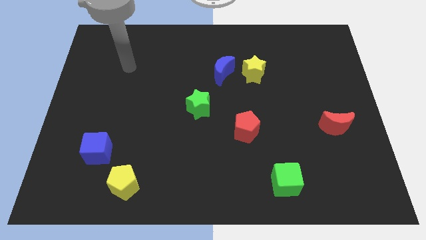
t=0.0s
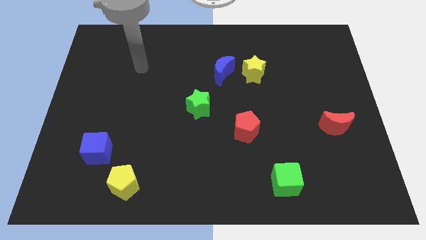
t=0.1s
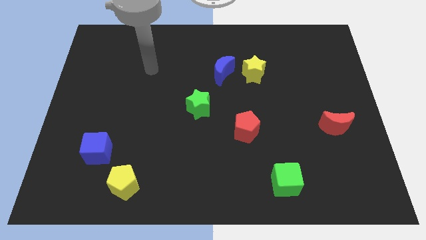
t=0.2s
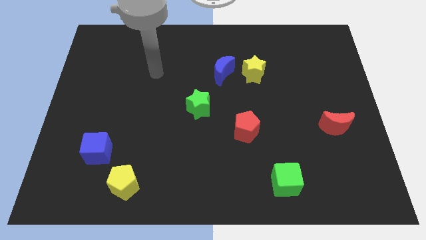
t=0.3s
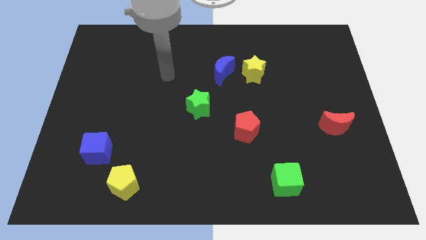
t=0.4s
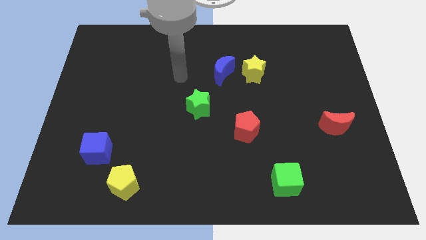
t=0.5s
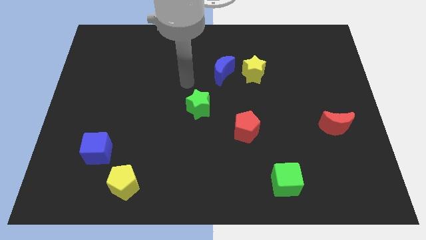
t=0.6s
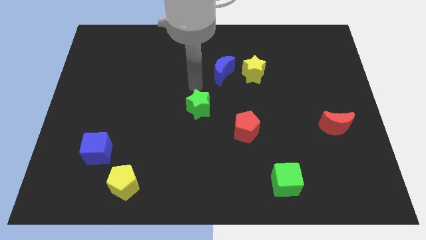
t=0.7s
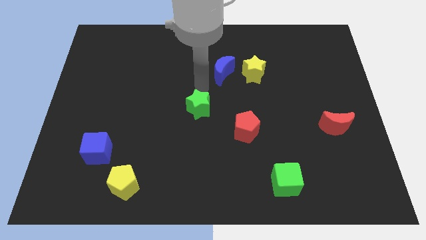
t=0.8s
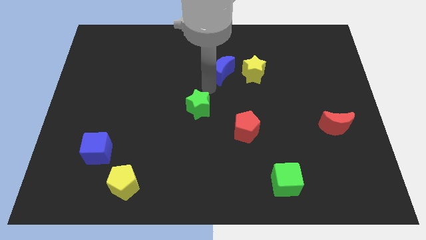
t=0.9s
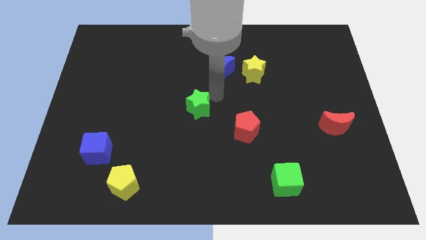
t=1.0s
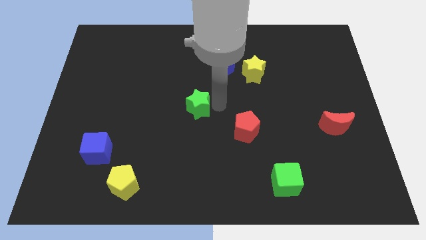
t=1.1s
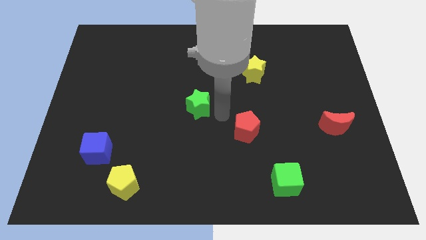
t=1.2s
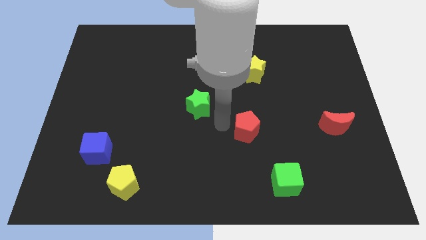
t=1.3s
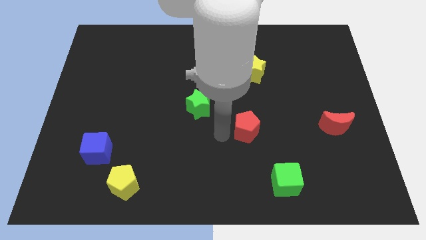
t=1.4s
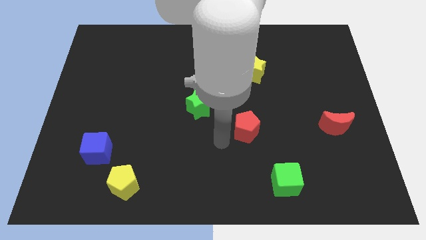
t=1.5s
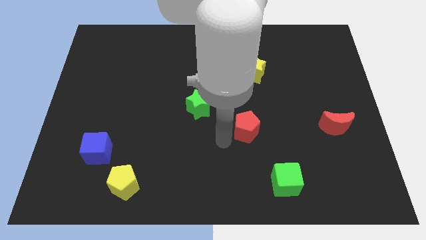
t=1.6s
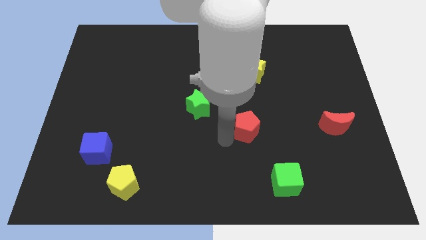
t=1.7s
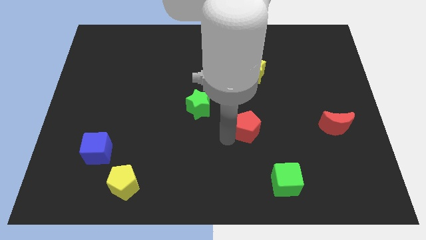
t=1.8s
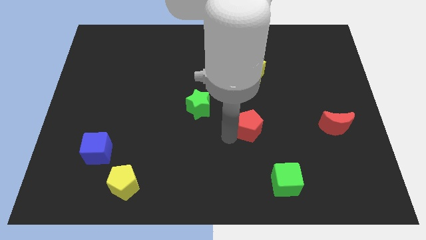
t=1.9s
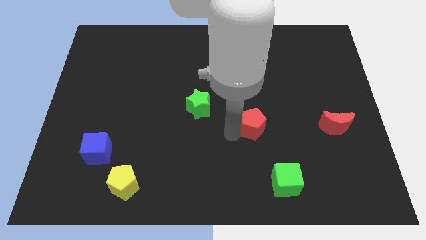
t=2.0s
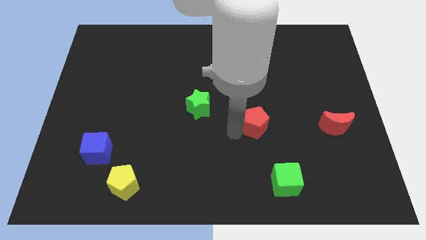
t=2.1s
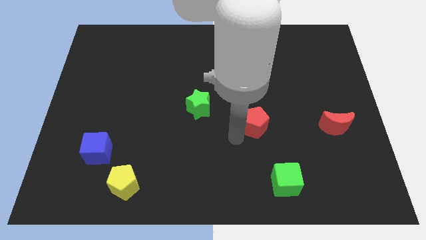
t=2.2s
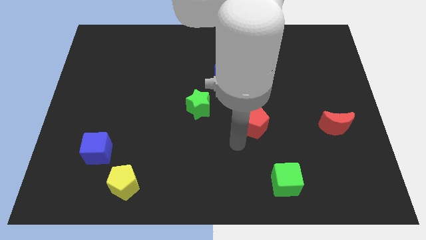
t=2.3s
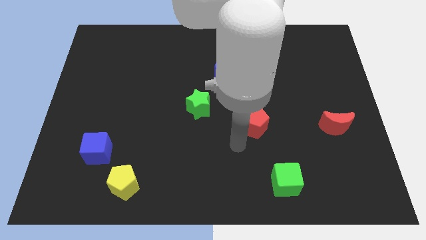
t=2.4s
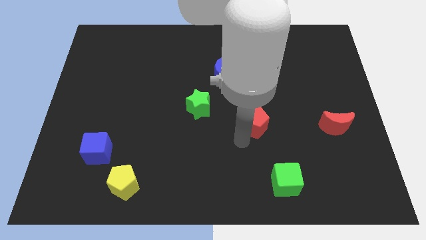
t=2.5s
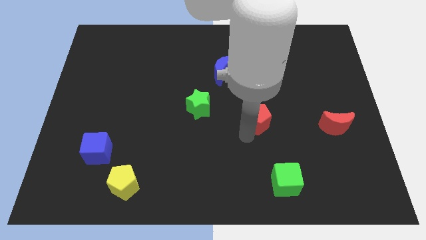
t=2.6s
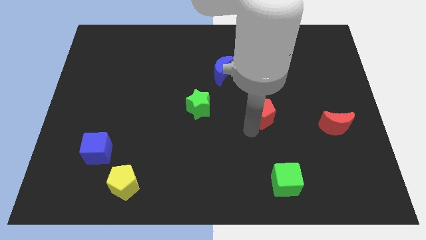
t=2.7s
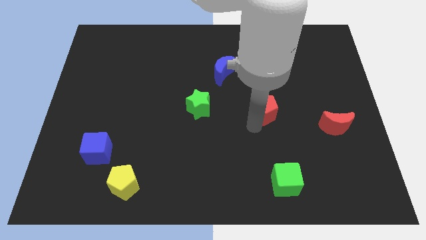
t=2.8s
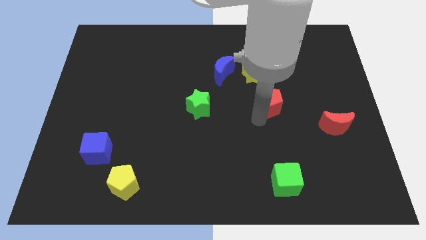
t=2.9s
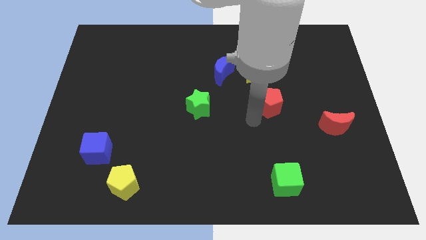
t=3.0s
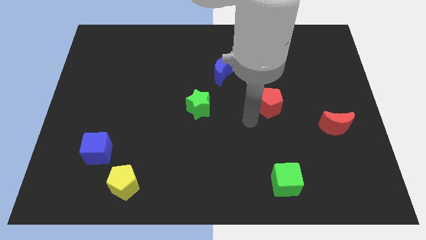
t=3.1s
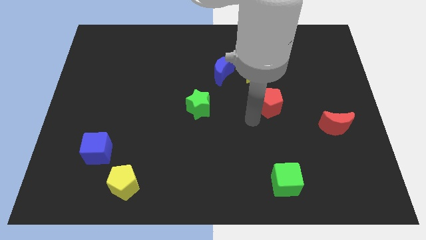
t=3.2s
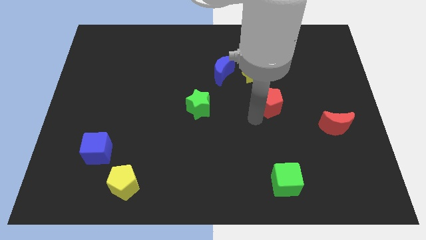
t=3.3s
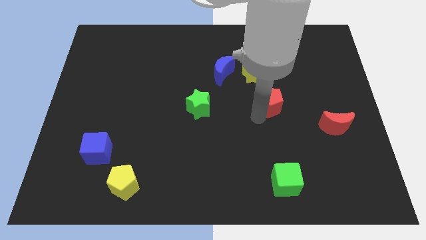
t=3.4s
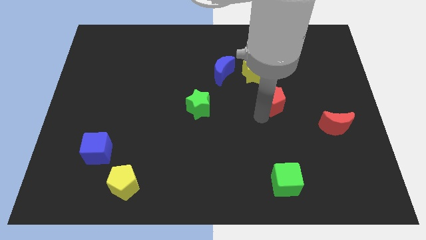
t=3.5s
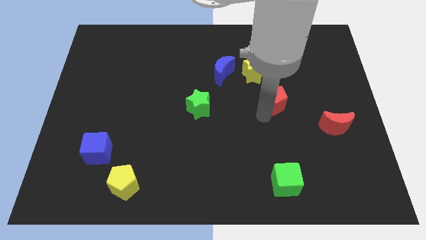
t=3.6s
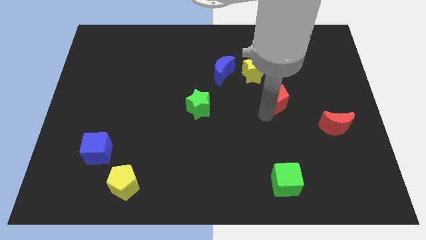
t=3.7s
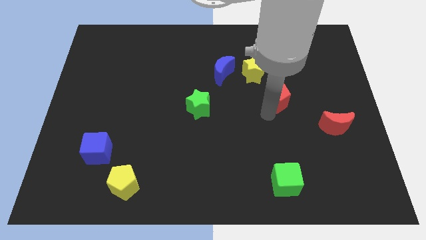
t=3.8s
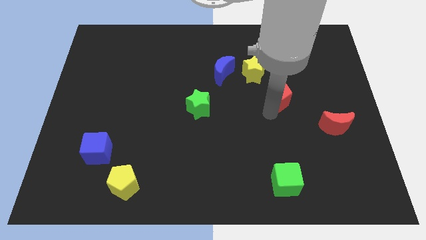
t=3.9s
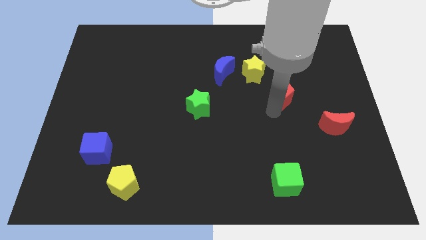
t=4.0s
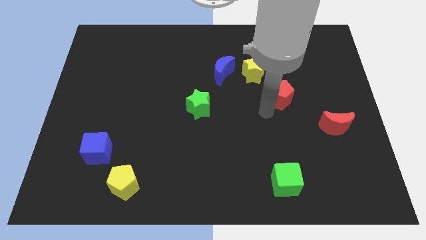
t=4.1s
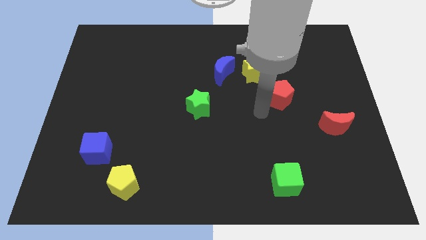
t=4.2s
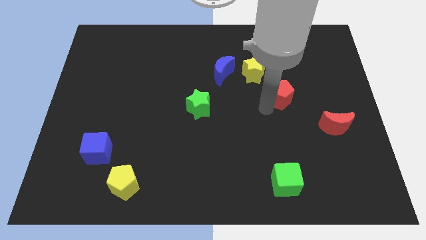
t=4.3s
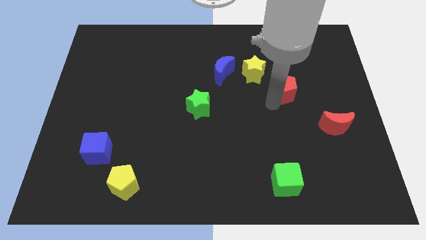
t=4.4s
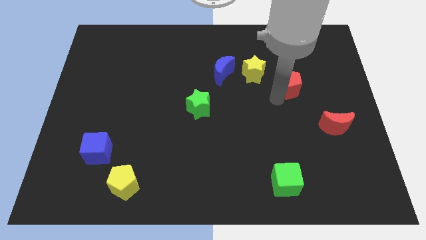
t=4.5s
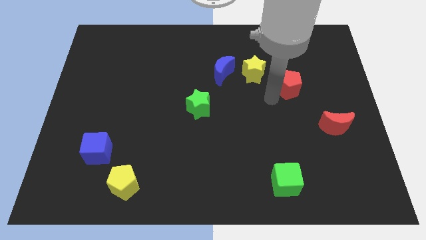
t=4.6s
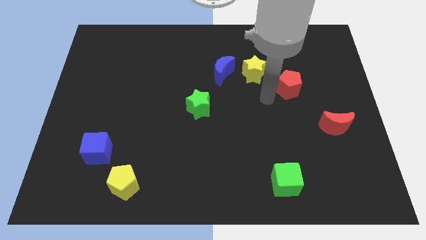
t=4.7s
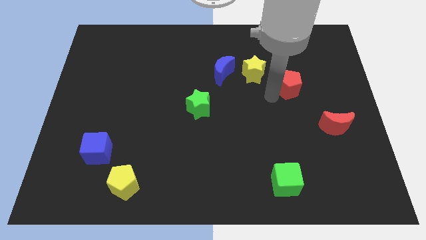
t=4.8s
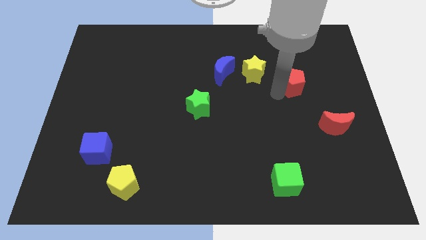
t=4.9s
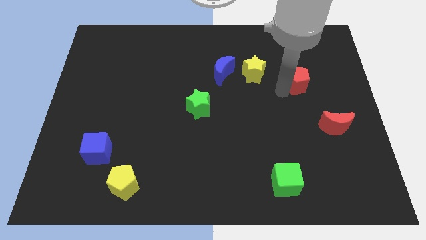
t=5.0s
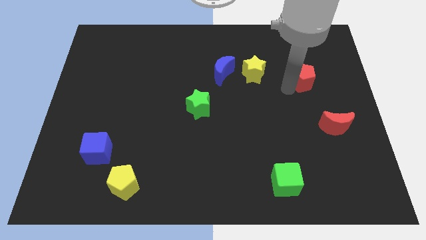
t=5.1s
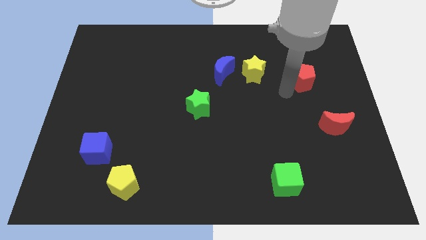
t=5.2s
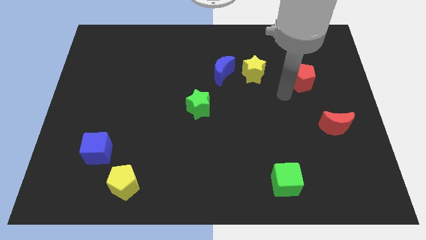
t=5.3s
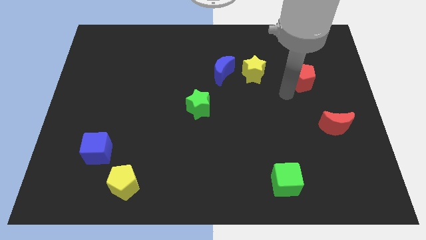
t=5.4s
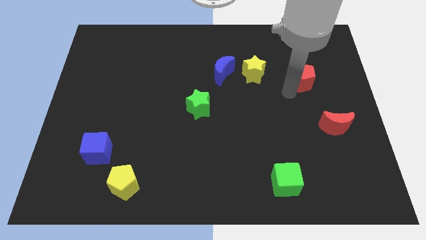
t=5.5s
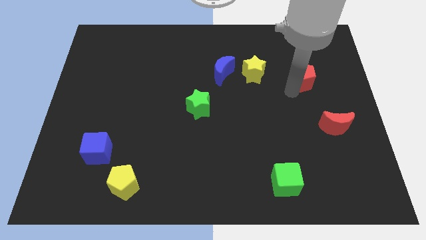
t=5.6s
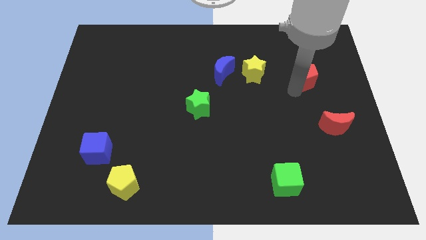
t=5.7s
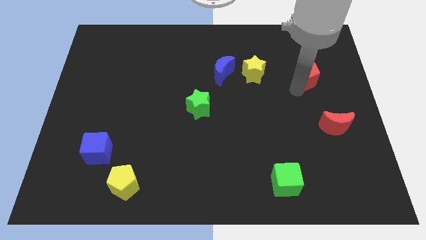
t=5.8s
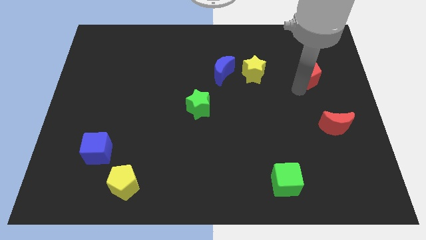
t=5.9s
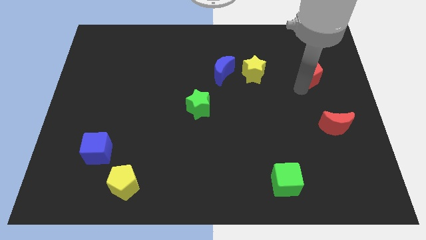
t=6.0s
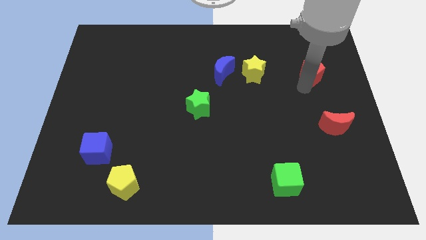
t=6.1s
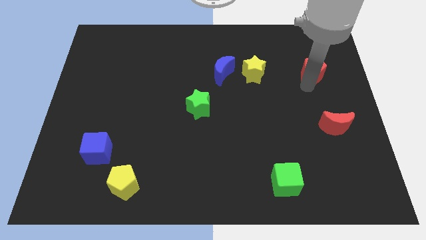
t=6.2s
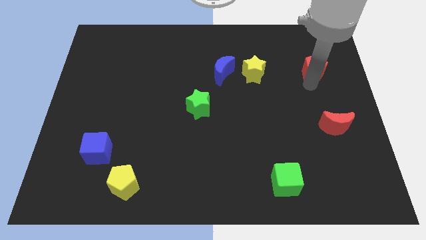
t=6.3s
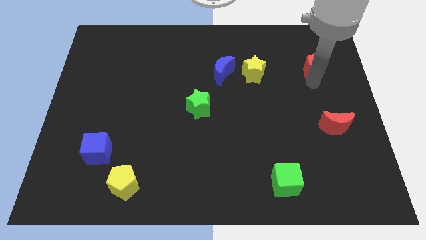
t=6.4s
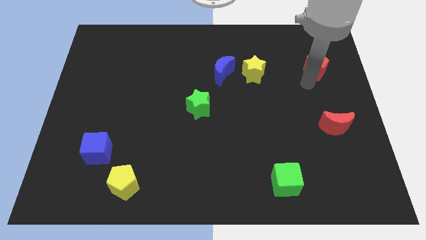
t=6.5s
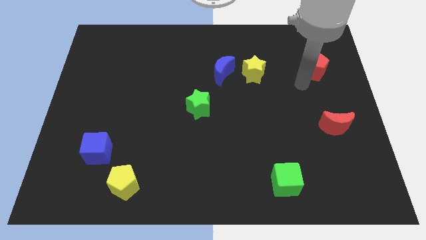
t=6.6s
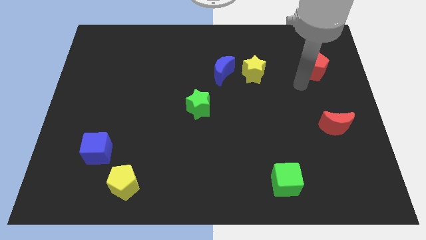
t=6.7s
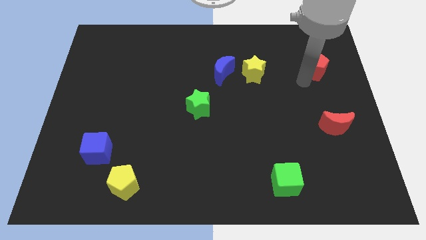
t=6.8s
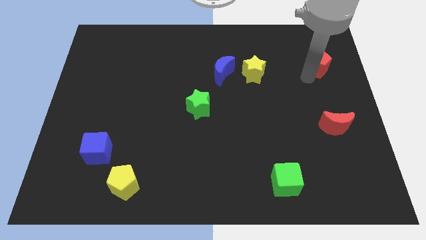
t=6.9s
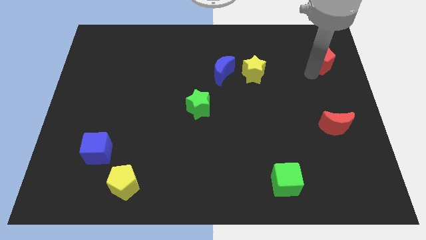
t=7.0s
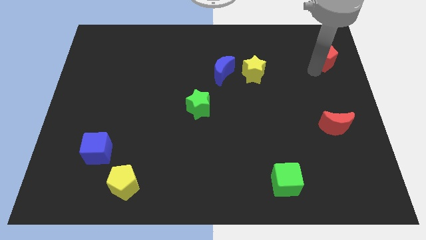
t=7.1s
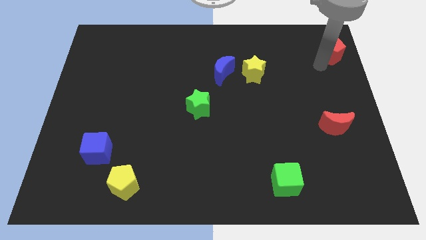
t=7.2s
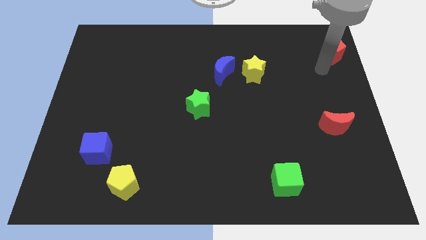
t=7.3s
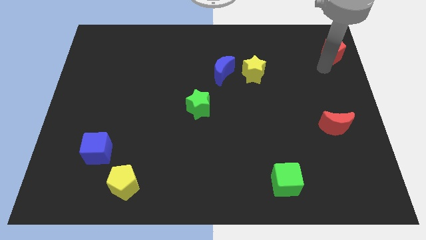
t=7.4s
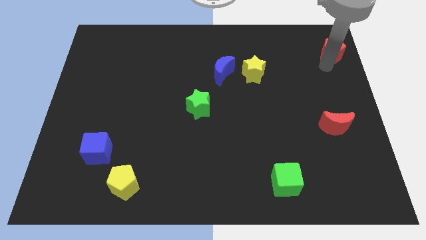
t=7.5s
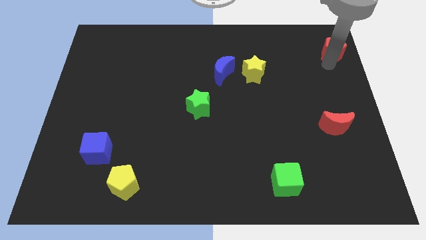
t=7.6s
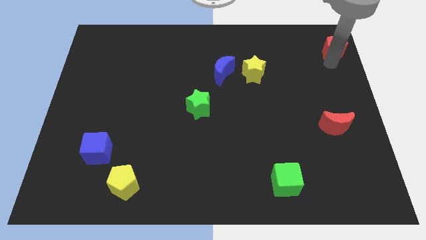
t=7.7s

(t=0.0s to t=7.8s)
put the red pentagon to the top right
